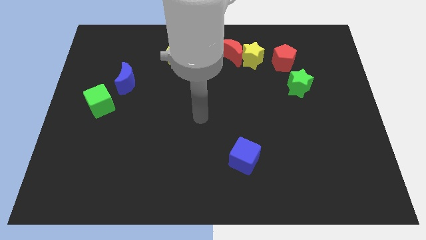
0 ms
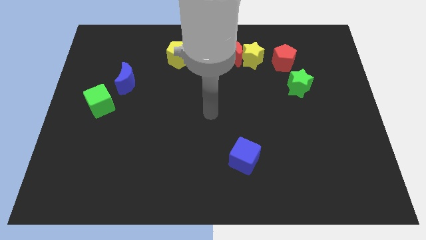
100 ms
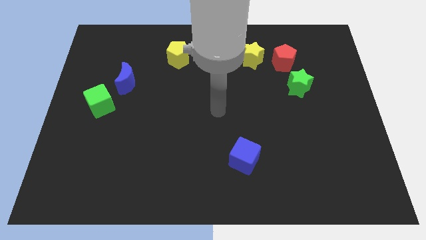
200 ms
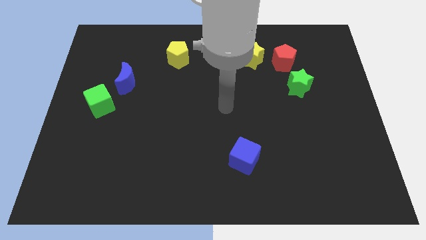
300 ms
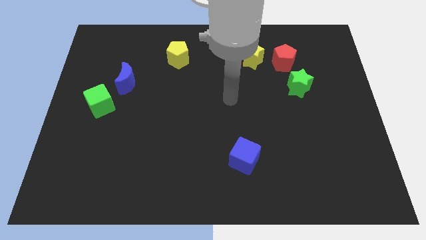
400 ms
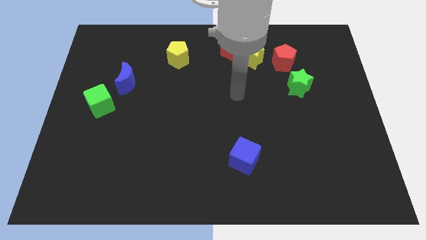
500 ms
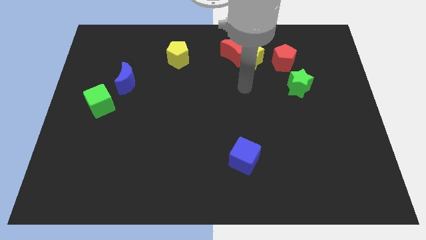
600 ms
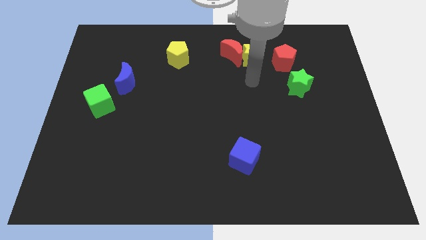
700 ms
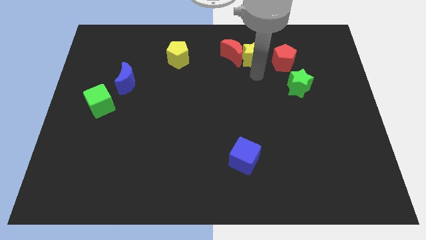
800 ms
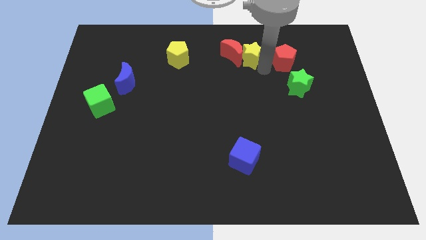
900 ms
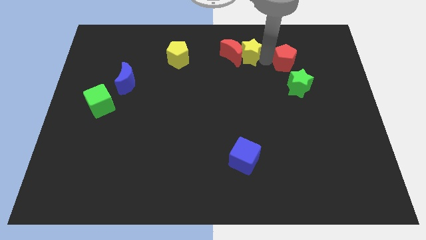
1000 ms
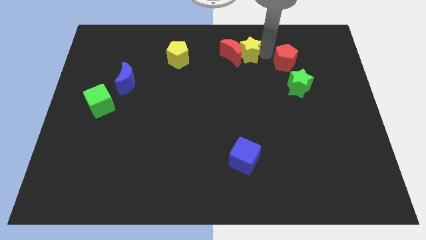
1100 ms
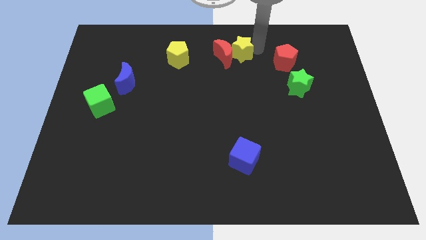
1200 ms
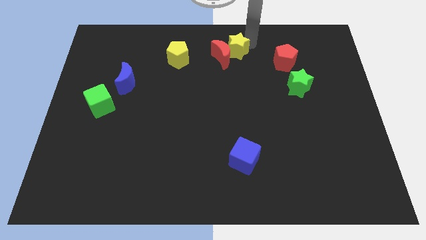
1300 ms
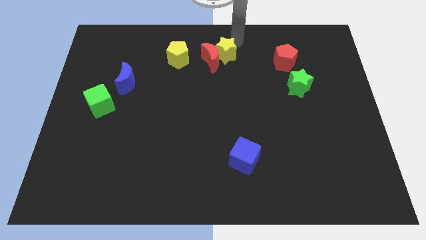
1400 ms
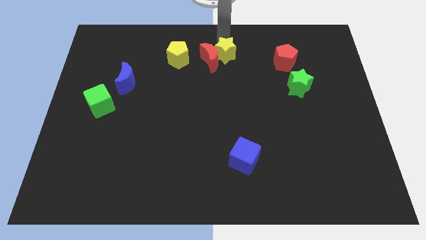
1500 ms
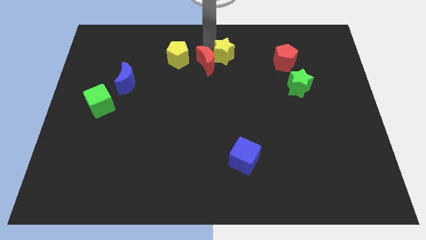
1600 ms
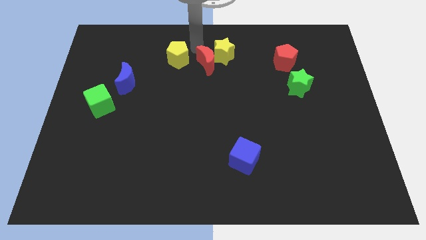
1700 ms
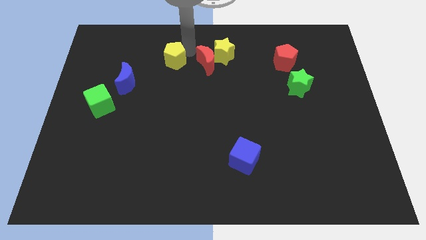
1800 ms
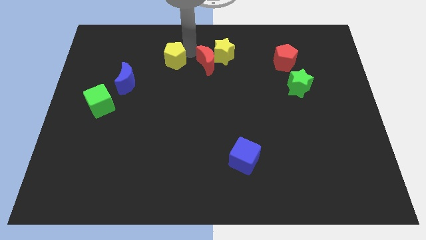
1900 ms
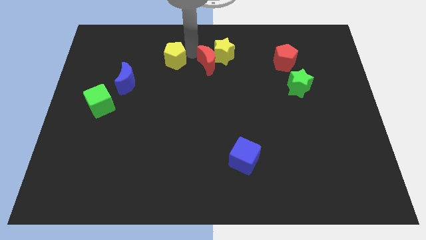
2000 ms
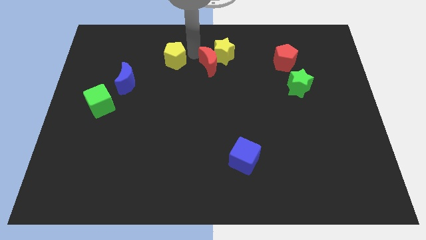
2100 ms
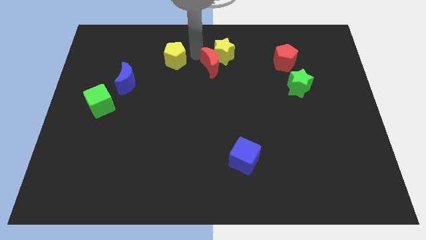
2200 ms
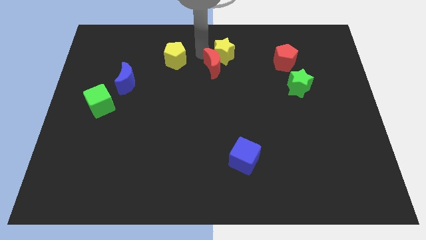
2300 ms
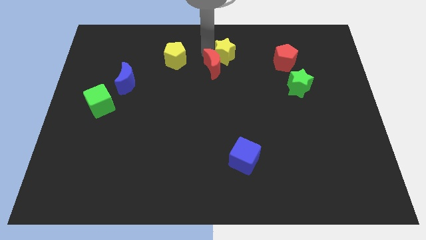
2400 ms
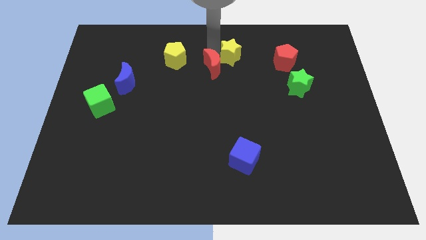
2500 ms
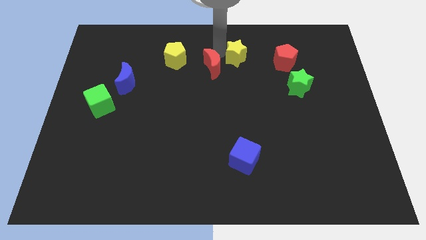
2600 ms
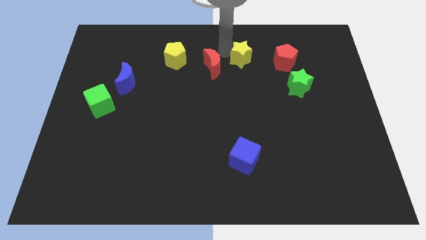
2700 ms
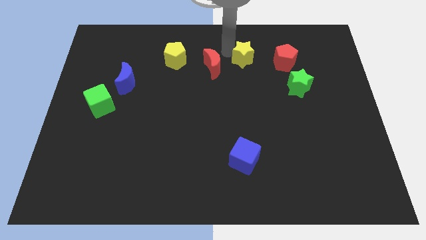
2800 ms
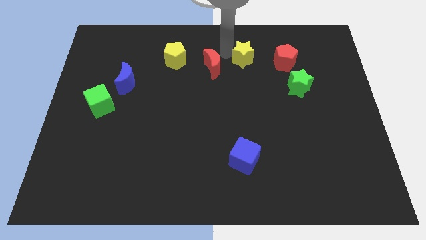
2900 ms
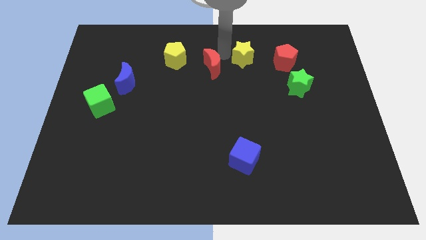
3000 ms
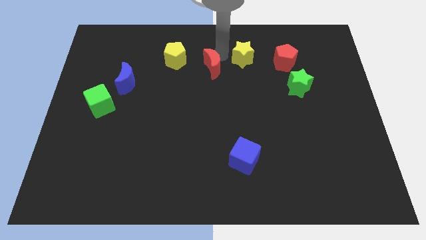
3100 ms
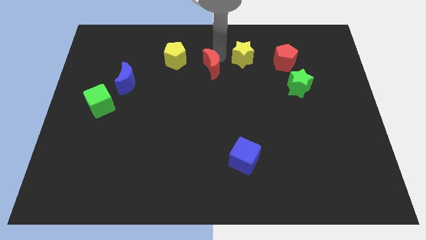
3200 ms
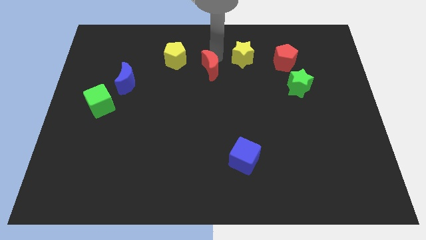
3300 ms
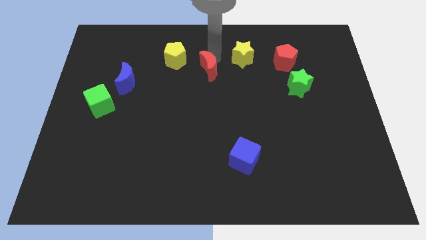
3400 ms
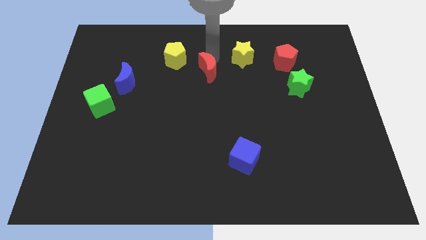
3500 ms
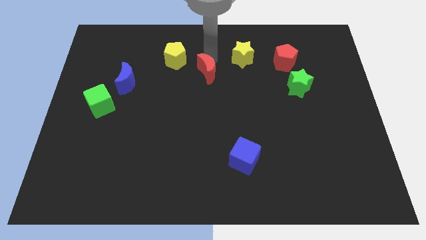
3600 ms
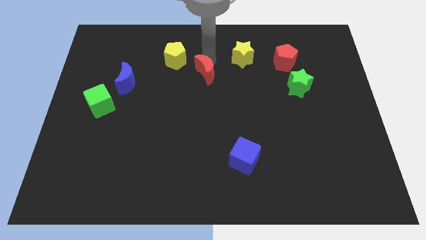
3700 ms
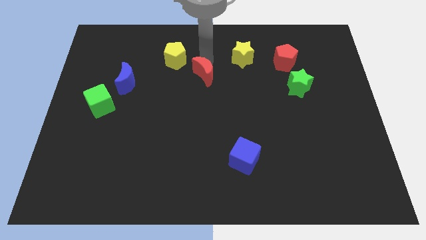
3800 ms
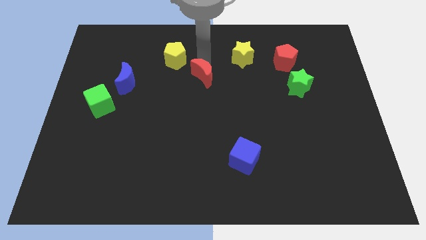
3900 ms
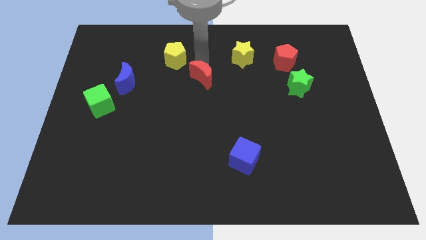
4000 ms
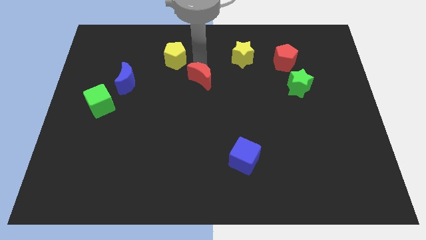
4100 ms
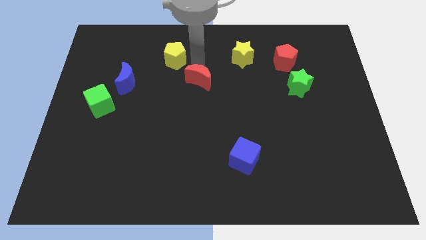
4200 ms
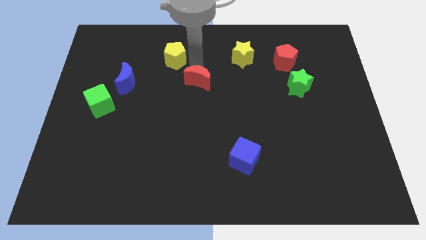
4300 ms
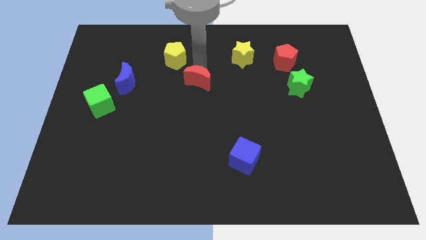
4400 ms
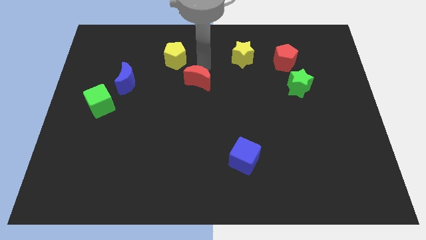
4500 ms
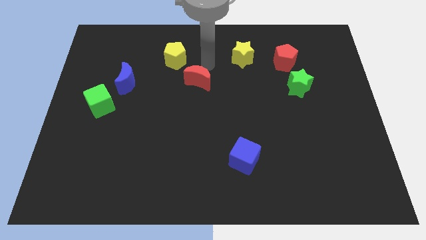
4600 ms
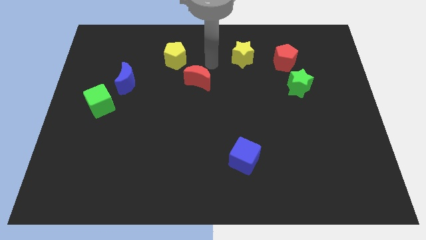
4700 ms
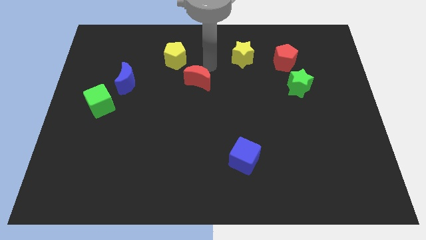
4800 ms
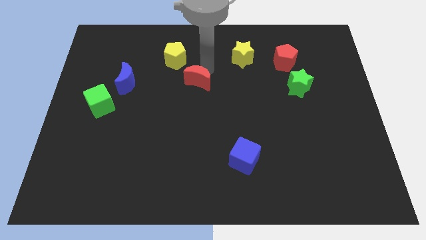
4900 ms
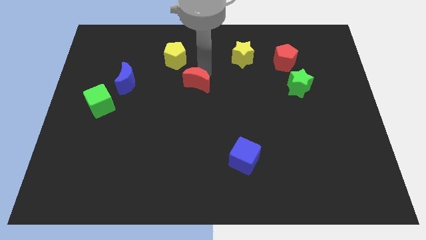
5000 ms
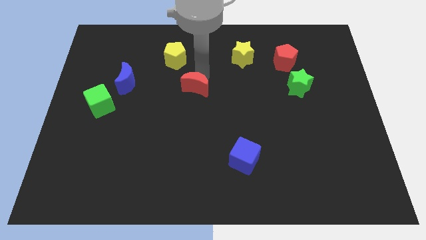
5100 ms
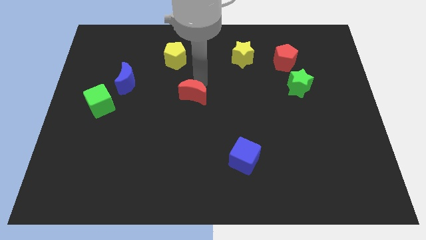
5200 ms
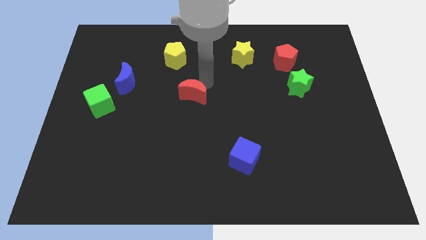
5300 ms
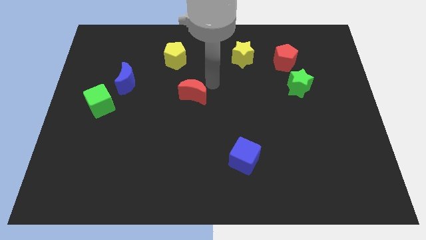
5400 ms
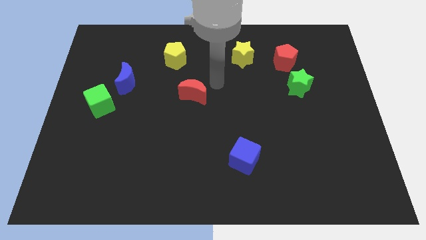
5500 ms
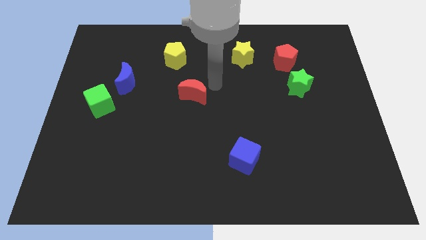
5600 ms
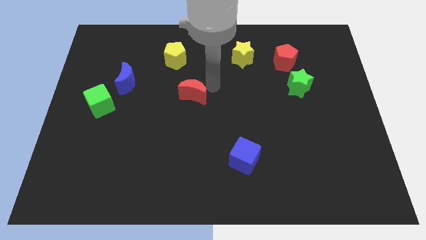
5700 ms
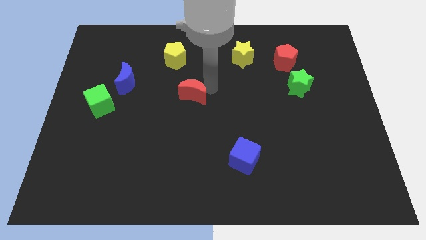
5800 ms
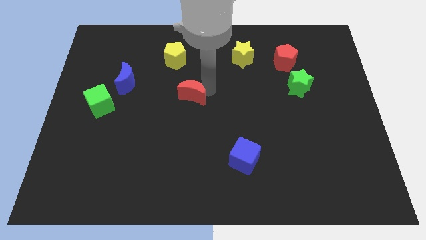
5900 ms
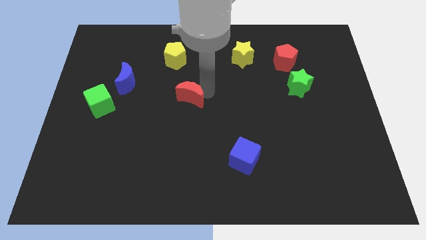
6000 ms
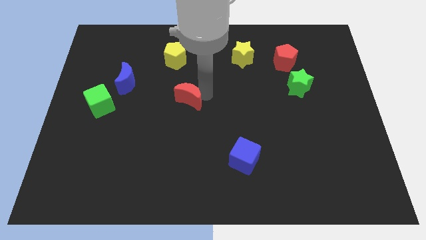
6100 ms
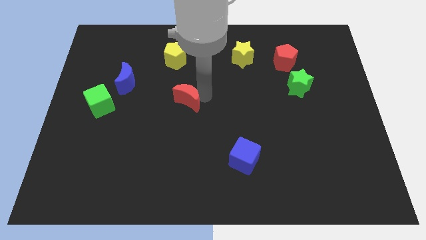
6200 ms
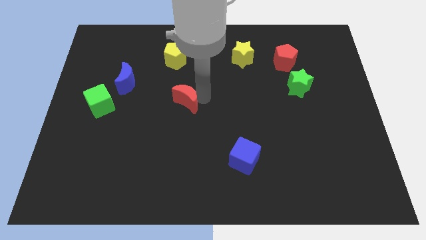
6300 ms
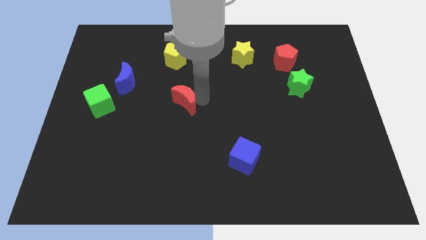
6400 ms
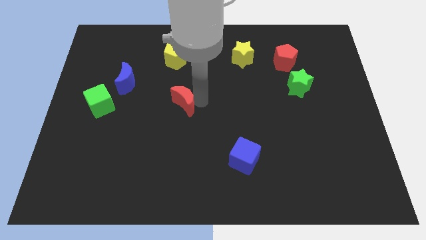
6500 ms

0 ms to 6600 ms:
push the red moon downwards and left

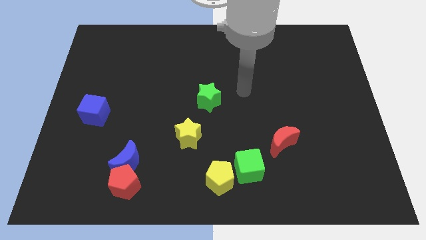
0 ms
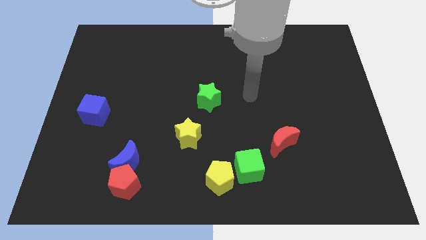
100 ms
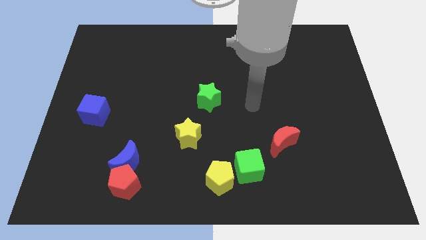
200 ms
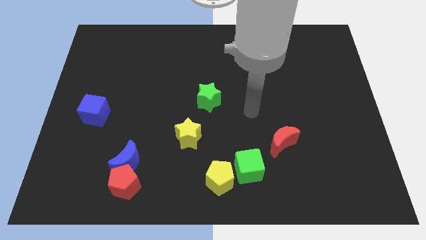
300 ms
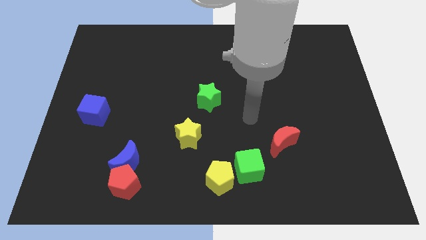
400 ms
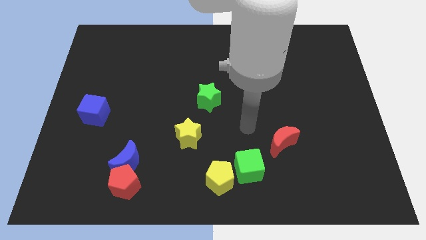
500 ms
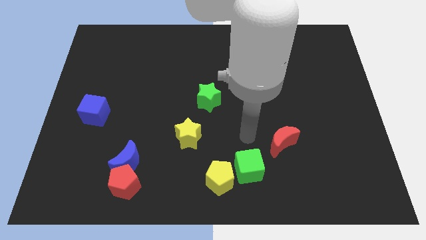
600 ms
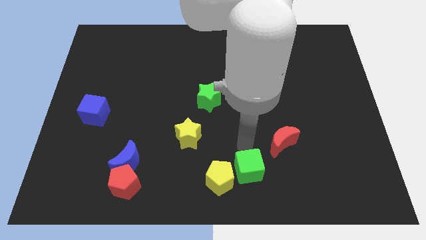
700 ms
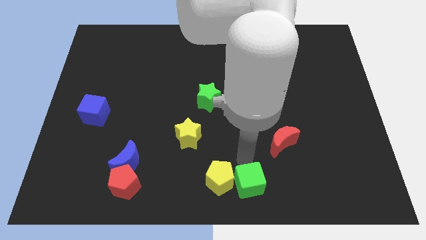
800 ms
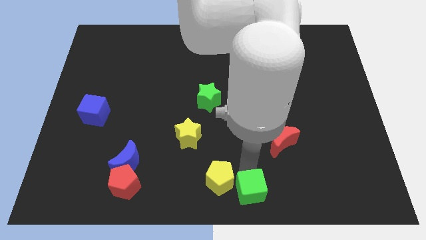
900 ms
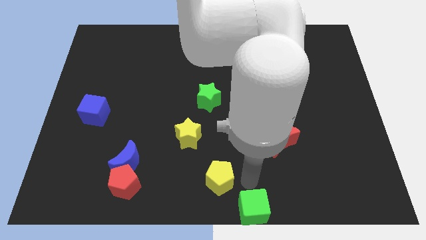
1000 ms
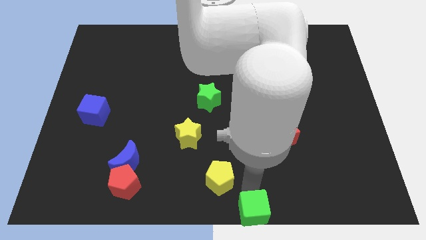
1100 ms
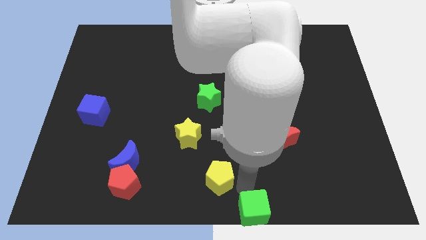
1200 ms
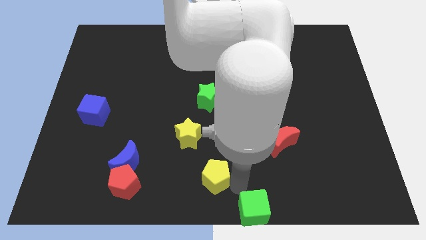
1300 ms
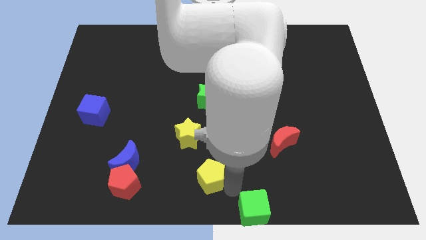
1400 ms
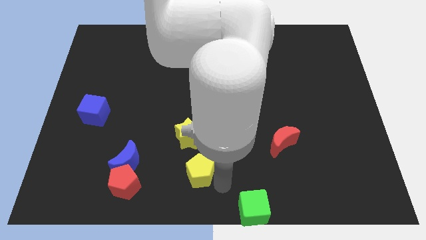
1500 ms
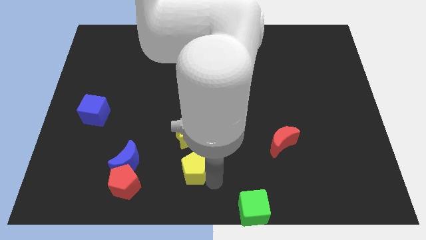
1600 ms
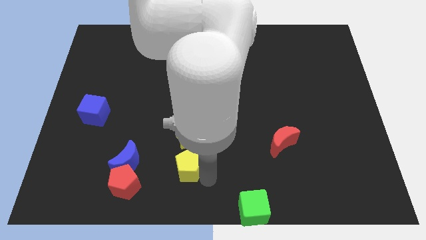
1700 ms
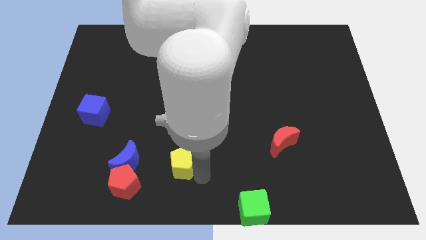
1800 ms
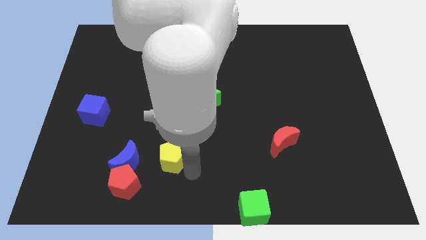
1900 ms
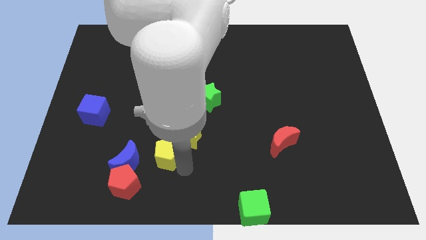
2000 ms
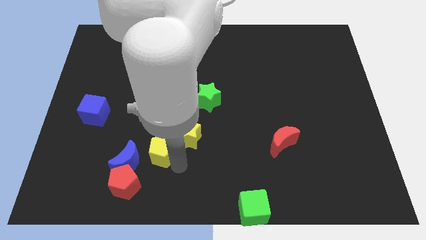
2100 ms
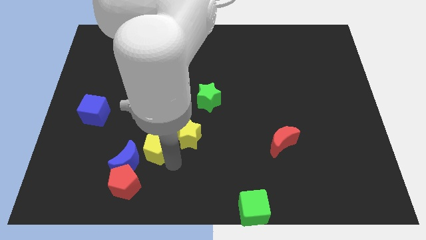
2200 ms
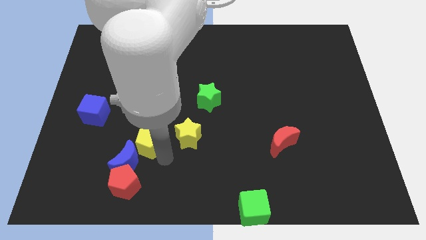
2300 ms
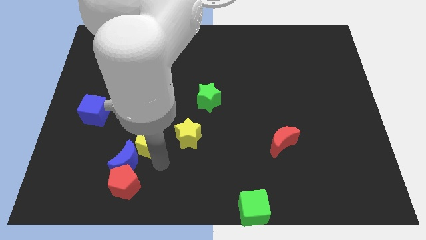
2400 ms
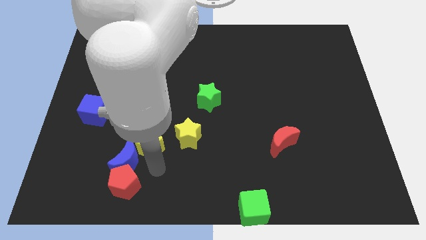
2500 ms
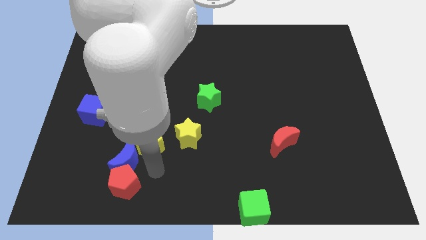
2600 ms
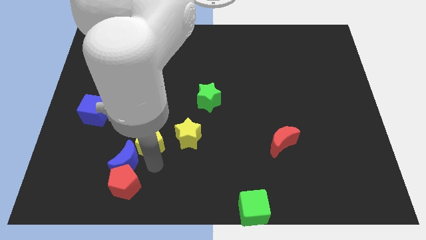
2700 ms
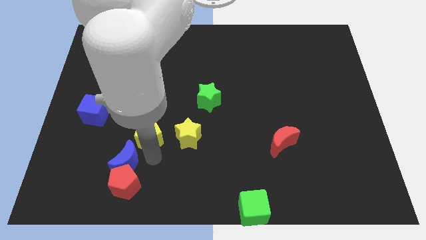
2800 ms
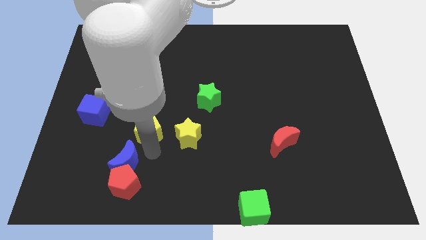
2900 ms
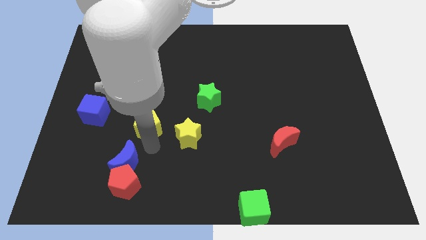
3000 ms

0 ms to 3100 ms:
move the yellow pentagon upwards and left
